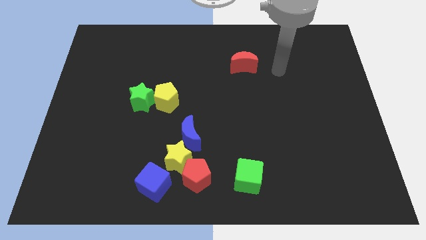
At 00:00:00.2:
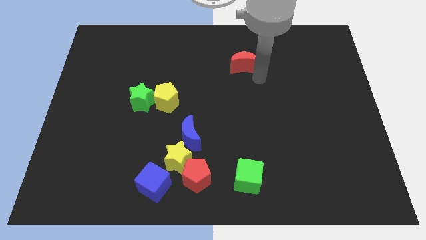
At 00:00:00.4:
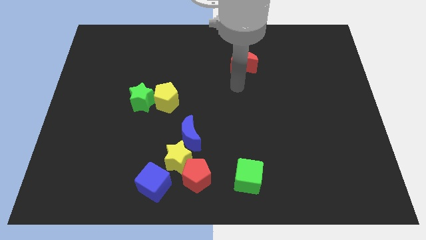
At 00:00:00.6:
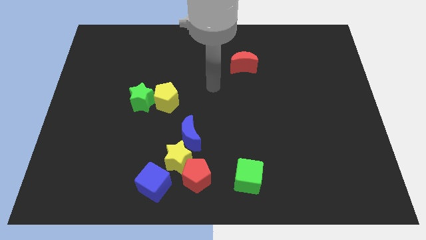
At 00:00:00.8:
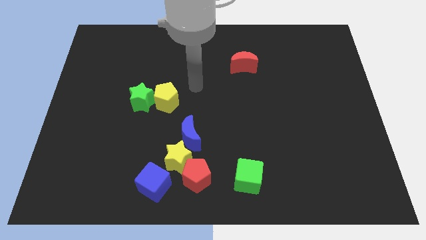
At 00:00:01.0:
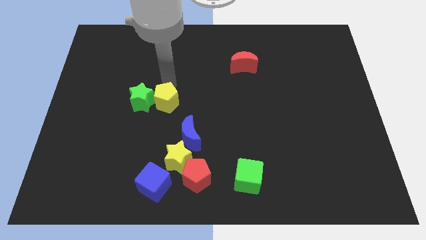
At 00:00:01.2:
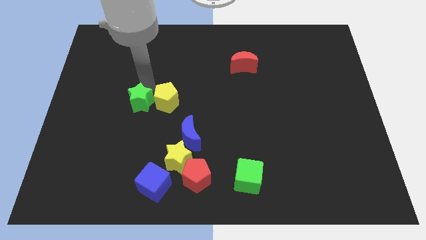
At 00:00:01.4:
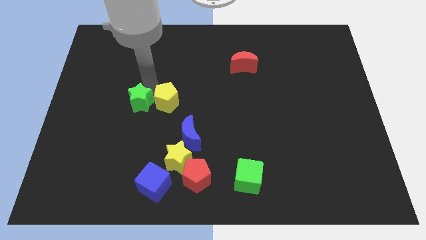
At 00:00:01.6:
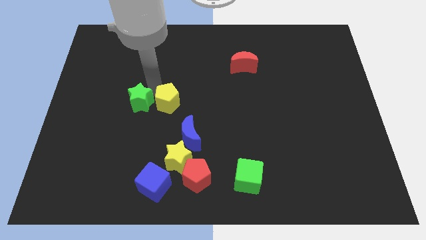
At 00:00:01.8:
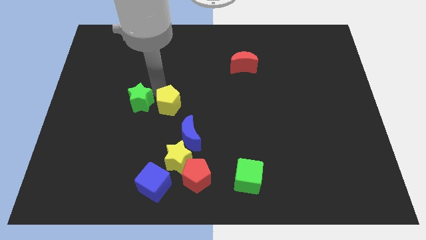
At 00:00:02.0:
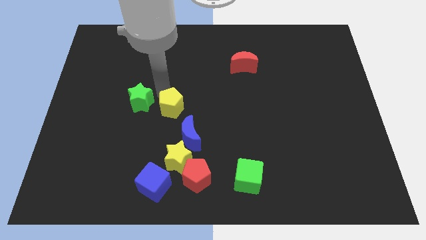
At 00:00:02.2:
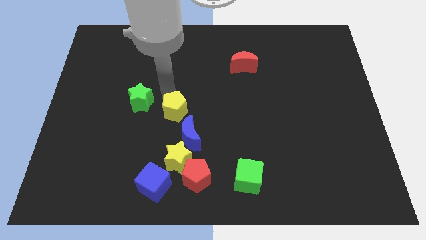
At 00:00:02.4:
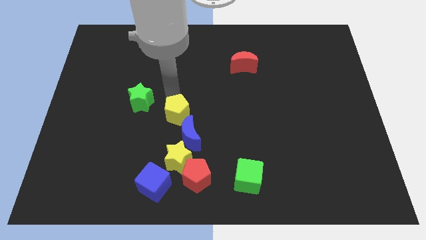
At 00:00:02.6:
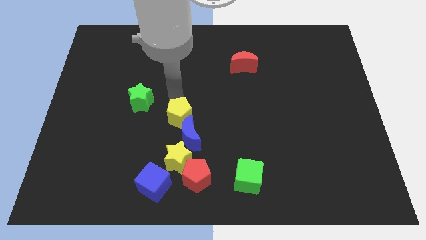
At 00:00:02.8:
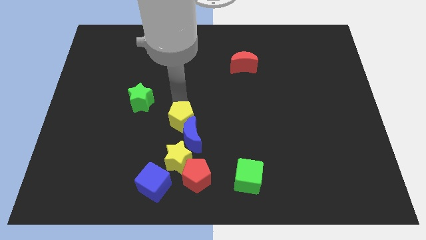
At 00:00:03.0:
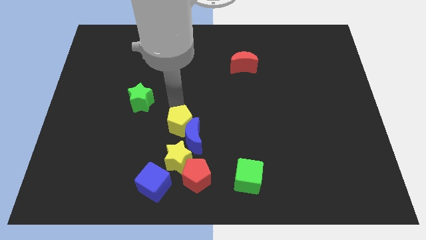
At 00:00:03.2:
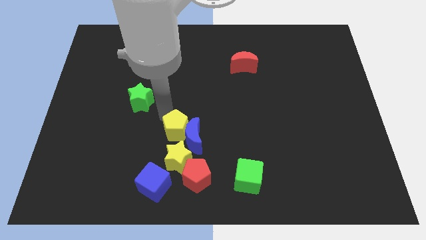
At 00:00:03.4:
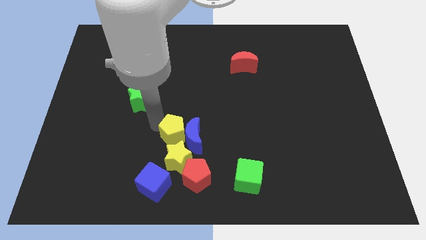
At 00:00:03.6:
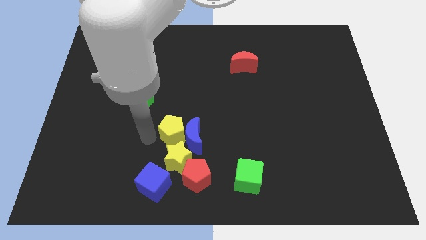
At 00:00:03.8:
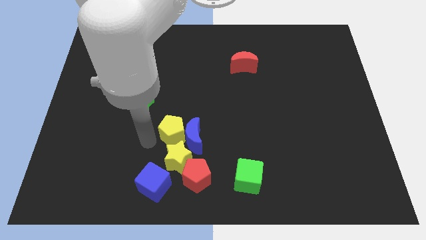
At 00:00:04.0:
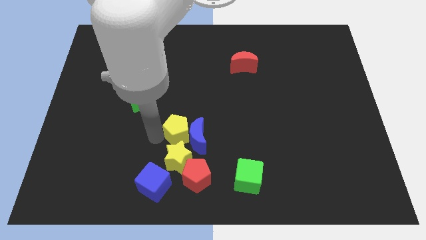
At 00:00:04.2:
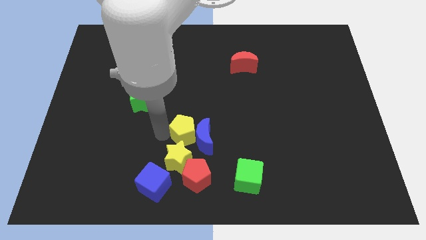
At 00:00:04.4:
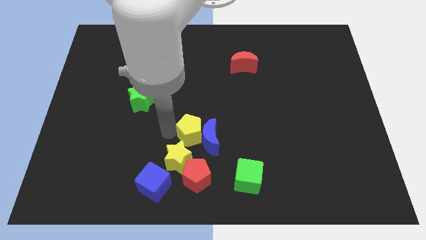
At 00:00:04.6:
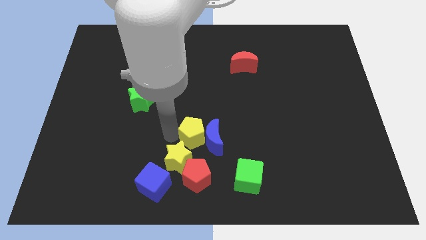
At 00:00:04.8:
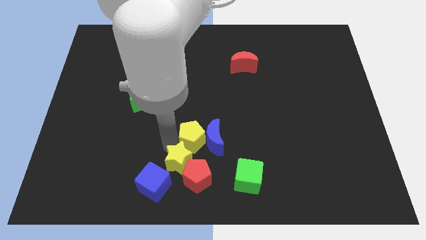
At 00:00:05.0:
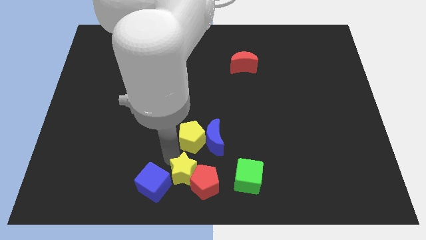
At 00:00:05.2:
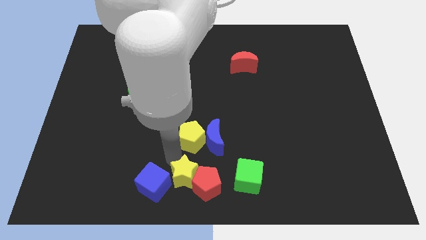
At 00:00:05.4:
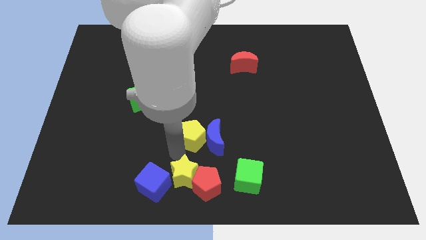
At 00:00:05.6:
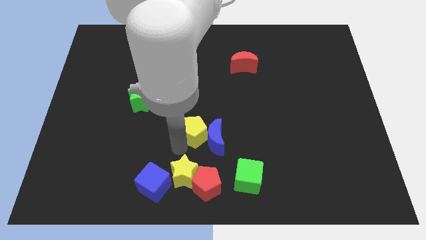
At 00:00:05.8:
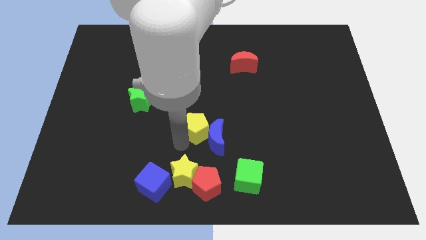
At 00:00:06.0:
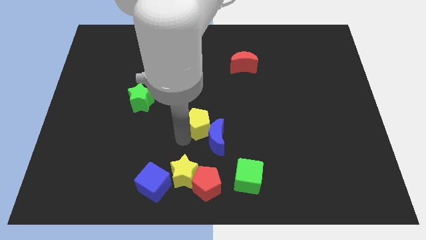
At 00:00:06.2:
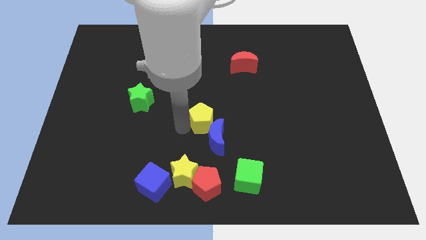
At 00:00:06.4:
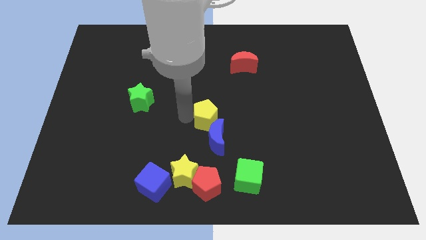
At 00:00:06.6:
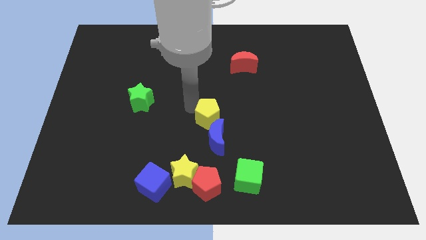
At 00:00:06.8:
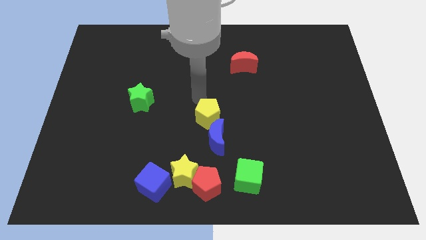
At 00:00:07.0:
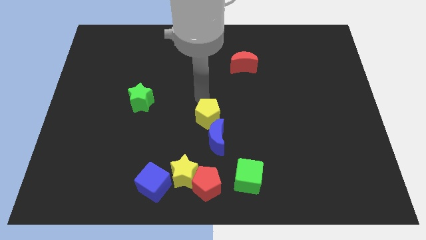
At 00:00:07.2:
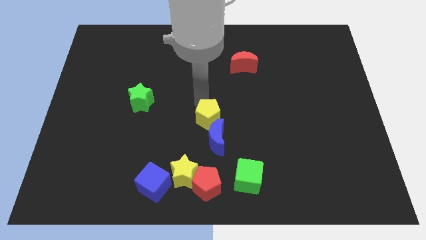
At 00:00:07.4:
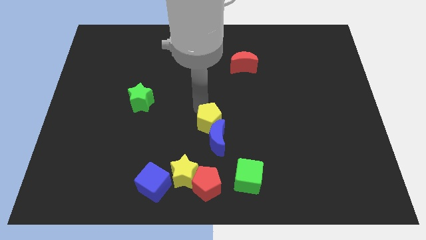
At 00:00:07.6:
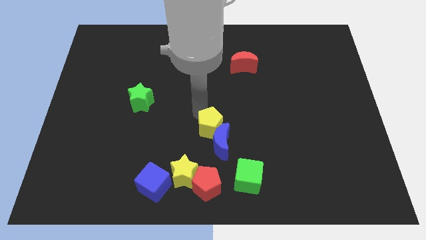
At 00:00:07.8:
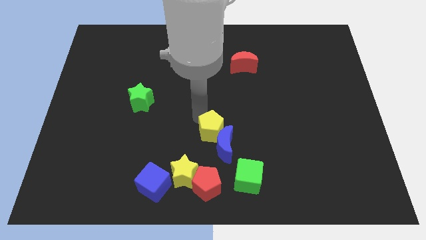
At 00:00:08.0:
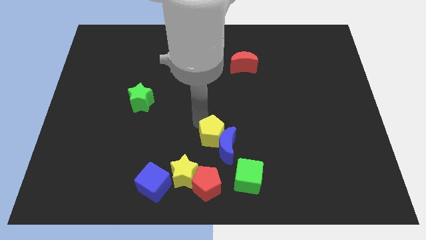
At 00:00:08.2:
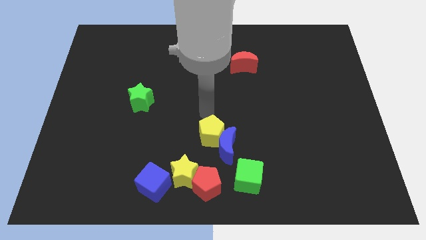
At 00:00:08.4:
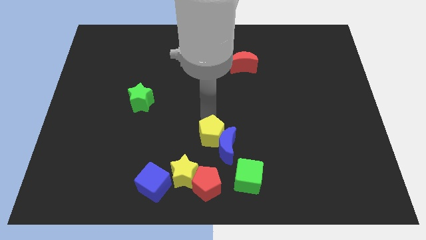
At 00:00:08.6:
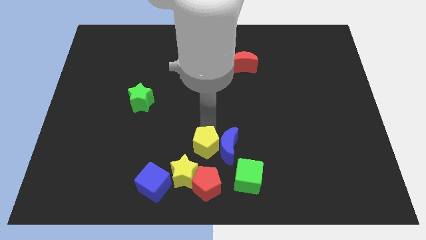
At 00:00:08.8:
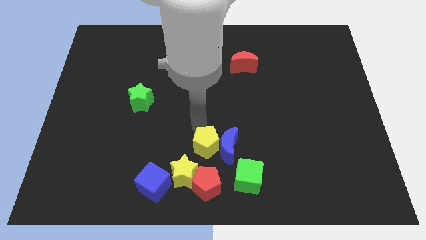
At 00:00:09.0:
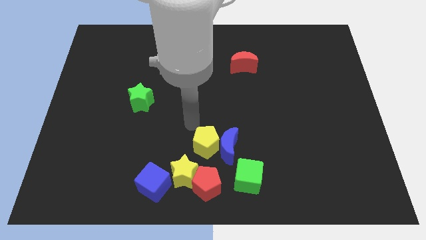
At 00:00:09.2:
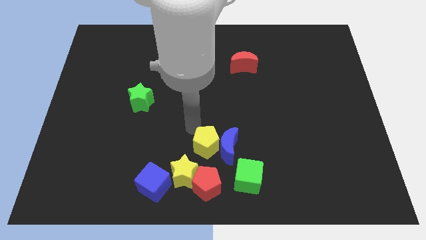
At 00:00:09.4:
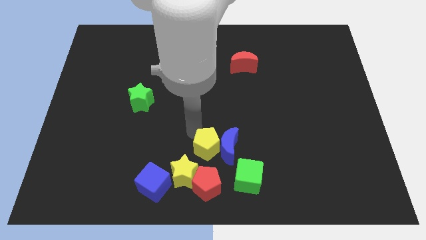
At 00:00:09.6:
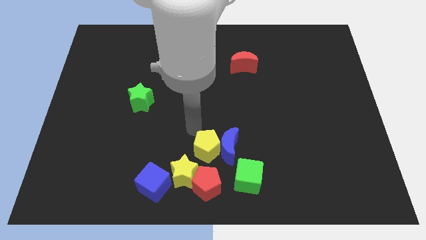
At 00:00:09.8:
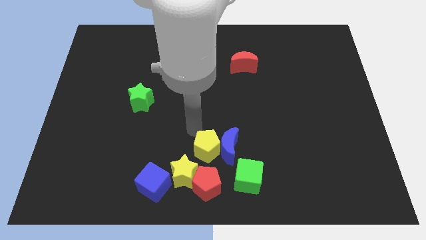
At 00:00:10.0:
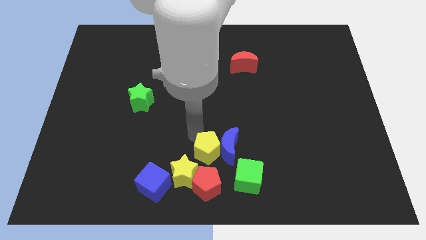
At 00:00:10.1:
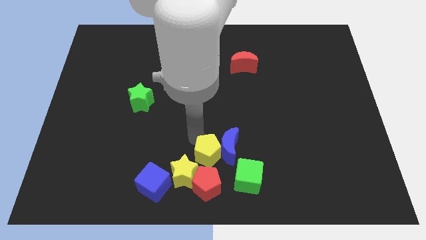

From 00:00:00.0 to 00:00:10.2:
put the yellow pentagon to the bottom
